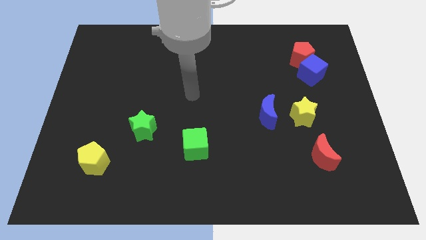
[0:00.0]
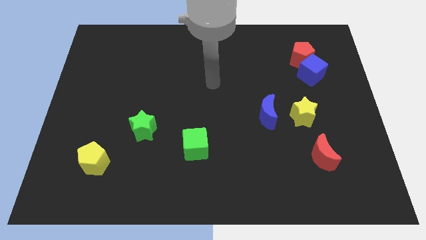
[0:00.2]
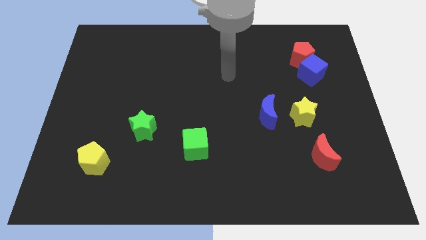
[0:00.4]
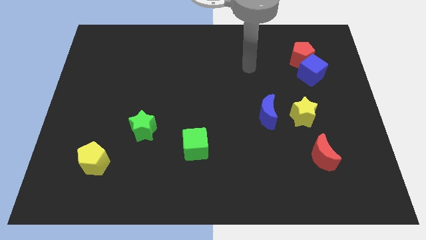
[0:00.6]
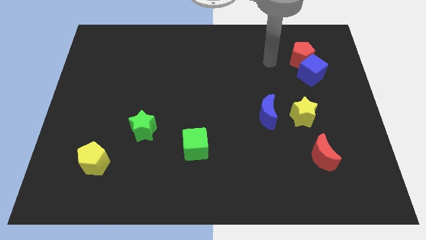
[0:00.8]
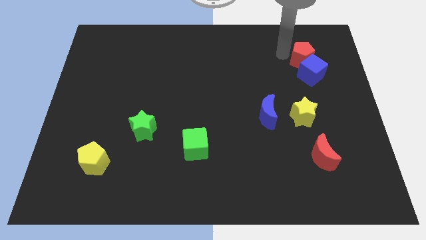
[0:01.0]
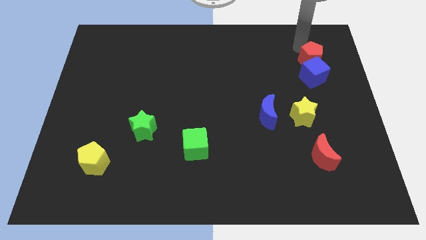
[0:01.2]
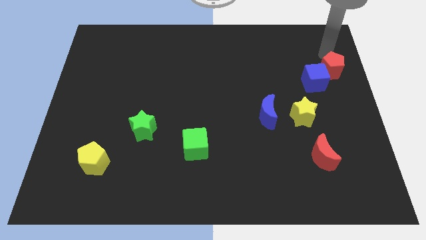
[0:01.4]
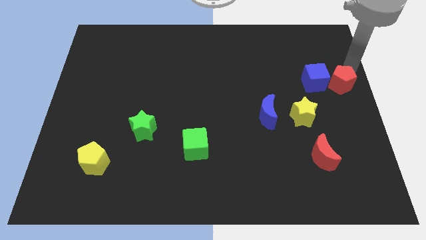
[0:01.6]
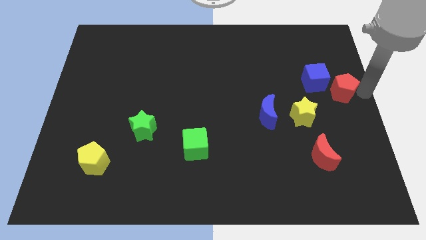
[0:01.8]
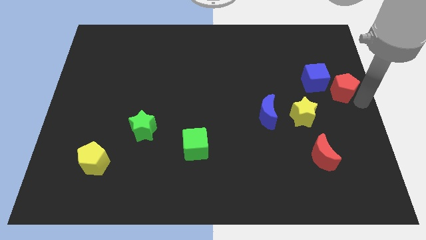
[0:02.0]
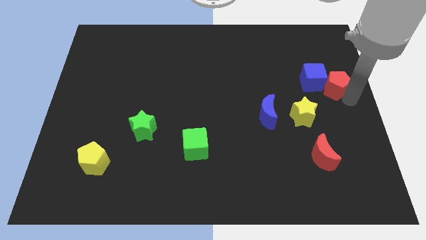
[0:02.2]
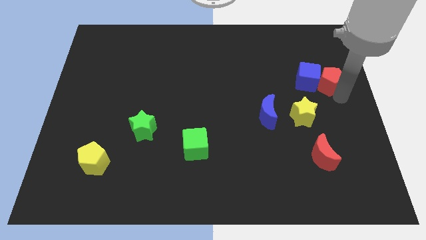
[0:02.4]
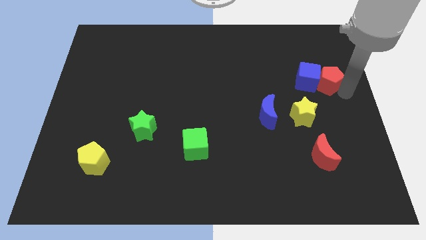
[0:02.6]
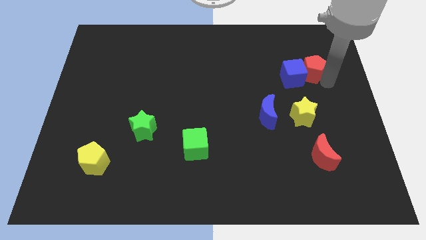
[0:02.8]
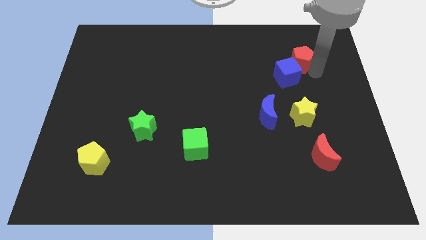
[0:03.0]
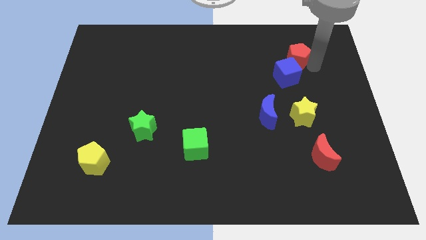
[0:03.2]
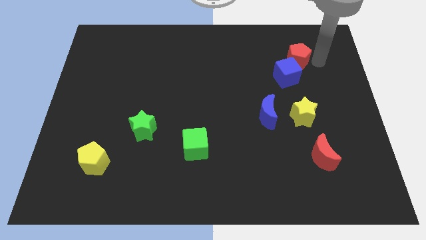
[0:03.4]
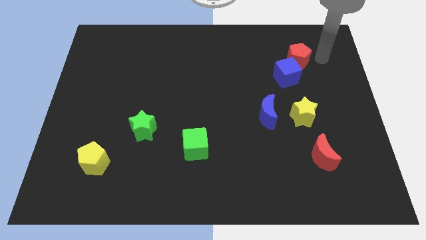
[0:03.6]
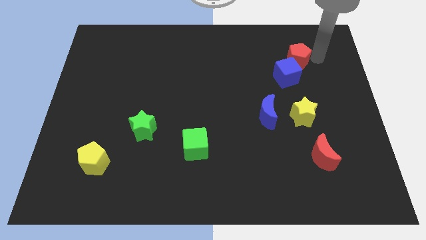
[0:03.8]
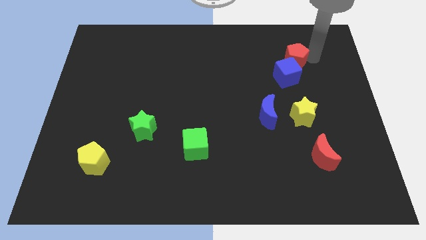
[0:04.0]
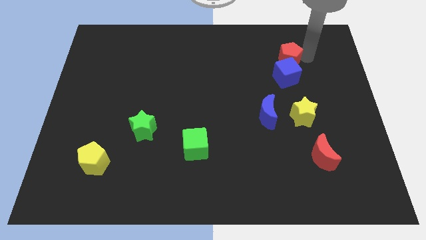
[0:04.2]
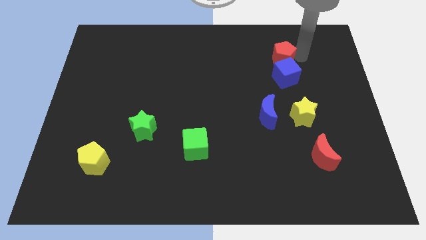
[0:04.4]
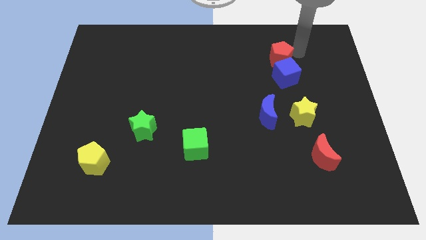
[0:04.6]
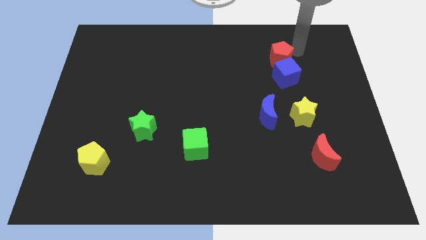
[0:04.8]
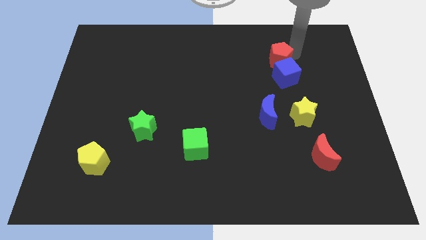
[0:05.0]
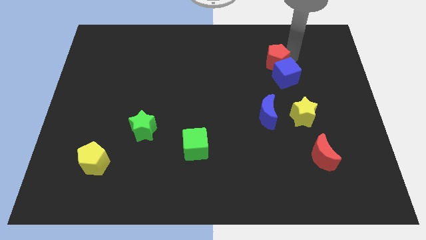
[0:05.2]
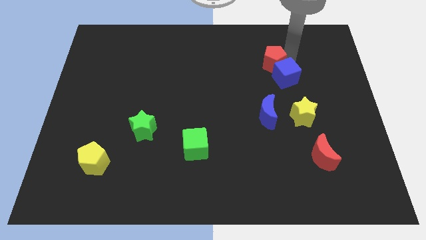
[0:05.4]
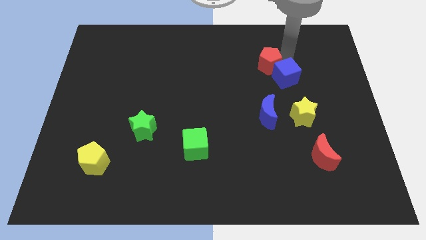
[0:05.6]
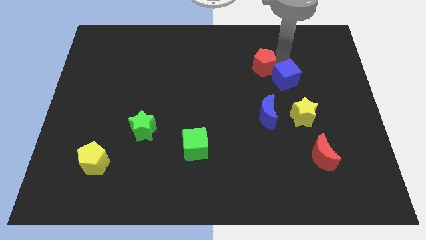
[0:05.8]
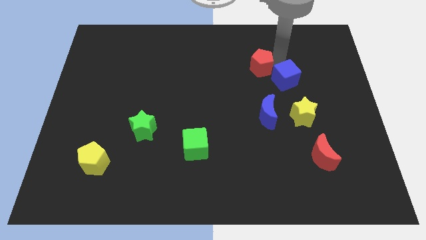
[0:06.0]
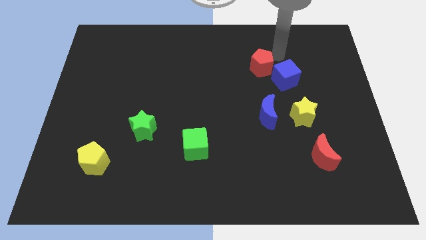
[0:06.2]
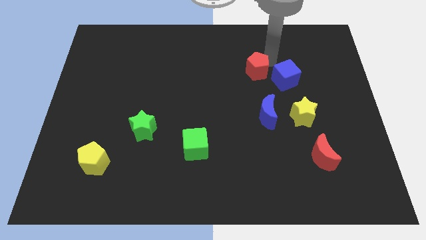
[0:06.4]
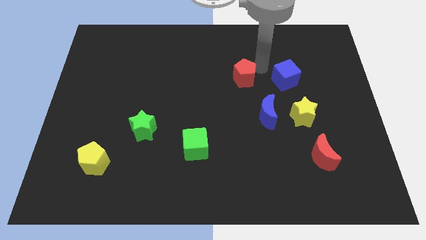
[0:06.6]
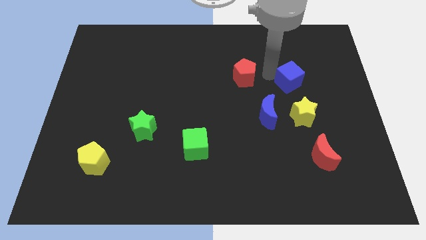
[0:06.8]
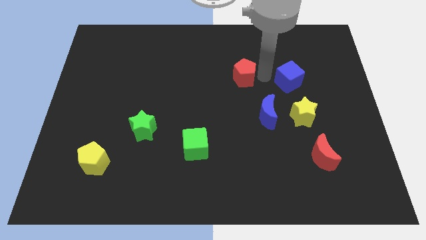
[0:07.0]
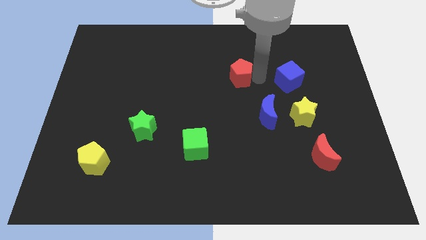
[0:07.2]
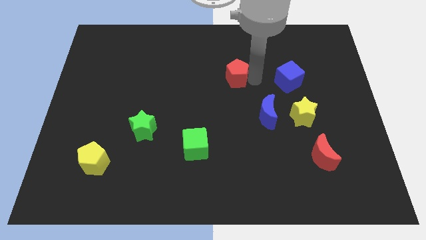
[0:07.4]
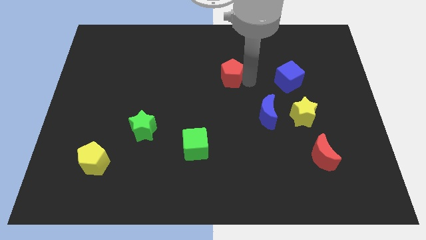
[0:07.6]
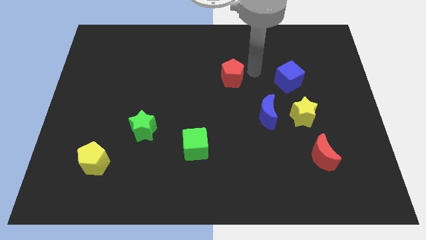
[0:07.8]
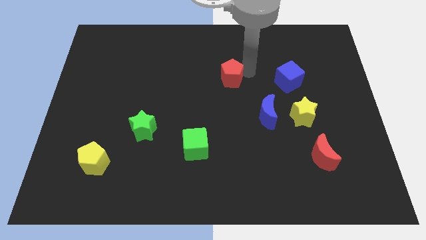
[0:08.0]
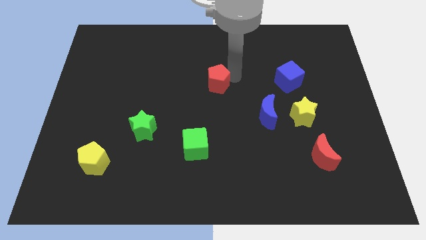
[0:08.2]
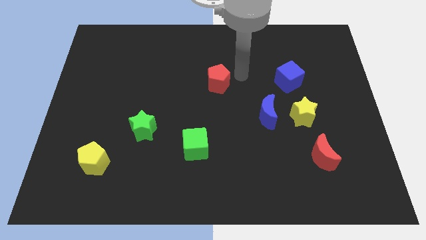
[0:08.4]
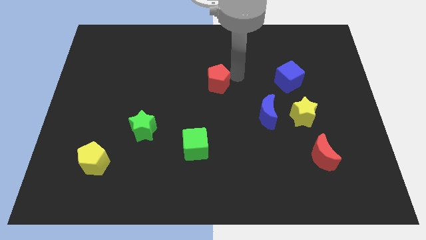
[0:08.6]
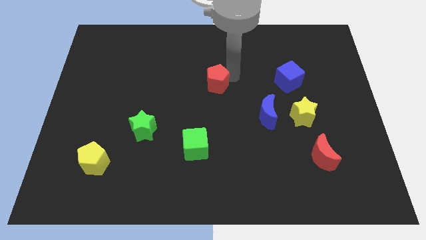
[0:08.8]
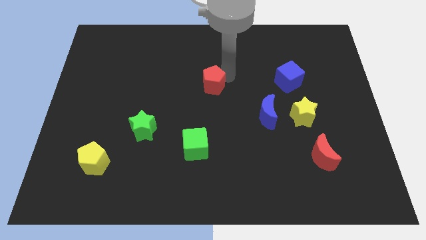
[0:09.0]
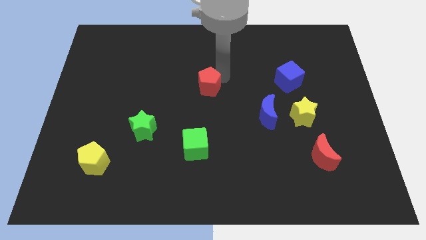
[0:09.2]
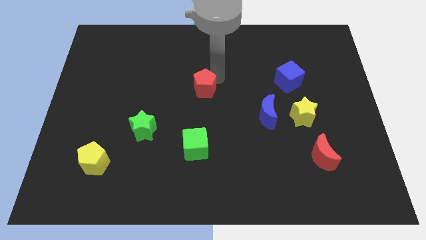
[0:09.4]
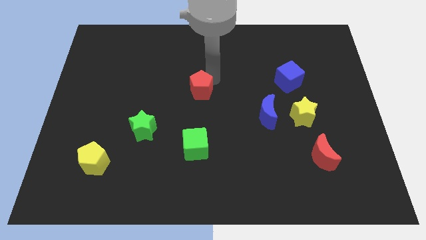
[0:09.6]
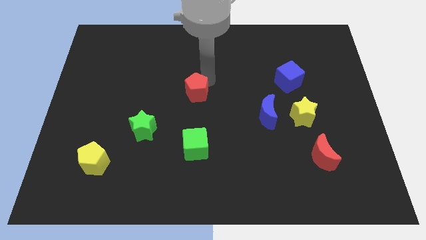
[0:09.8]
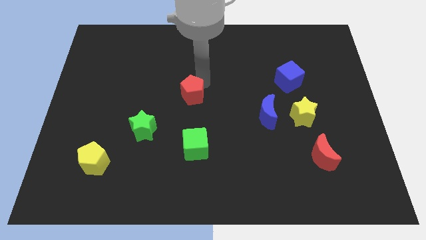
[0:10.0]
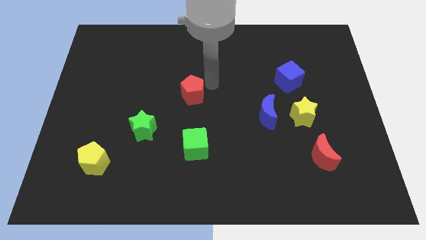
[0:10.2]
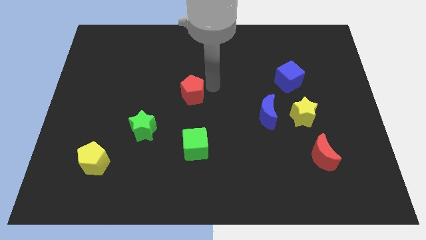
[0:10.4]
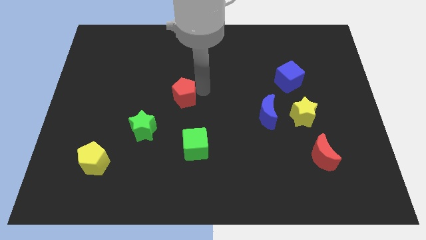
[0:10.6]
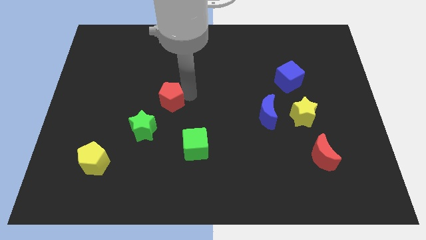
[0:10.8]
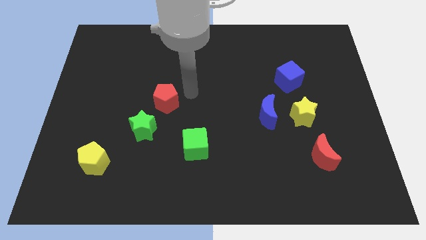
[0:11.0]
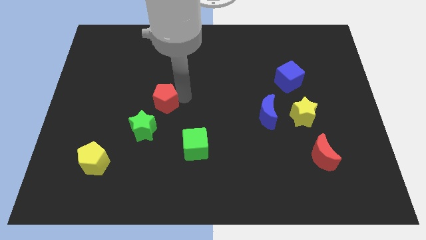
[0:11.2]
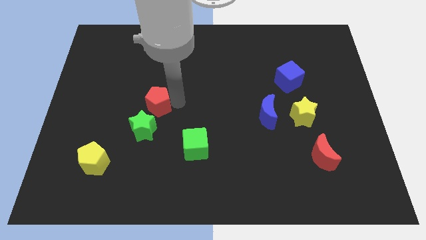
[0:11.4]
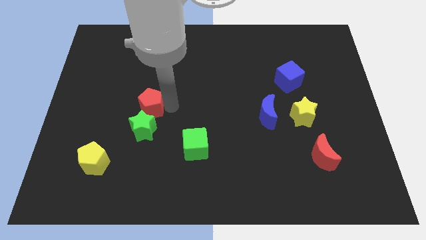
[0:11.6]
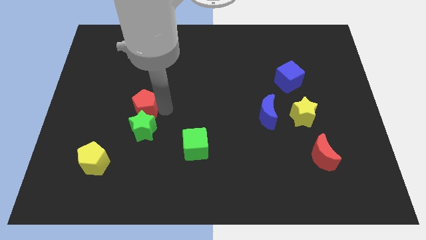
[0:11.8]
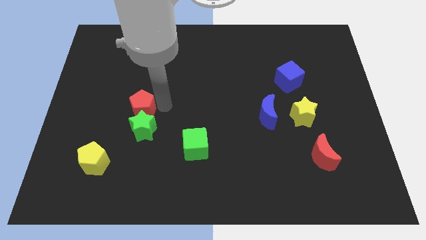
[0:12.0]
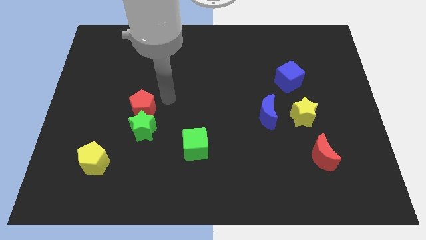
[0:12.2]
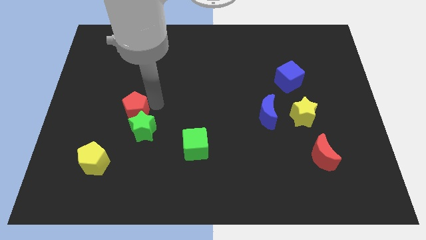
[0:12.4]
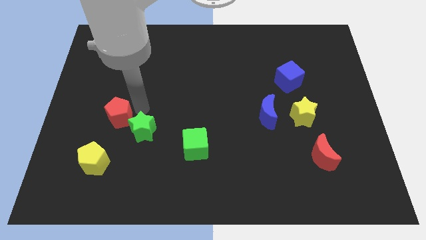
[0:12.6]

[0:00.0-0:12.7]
slide the red pentagon to the left side of the green star

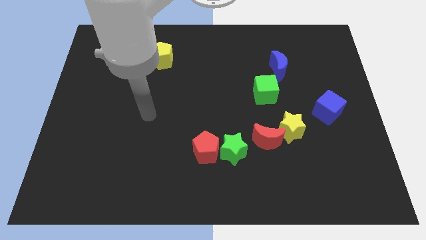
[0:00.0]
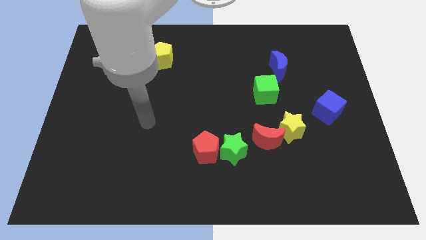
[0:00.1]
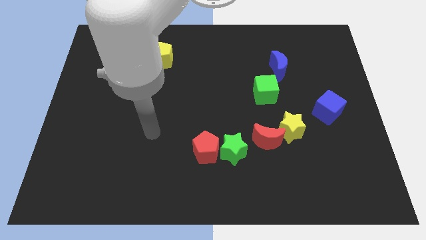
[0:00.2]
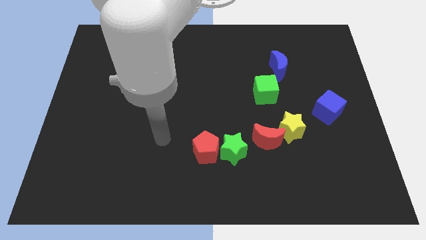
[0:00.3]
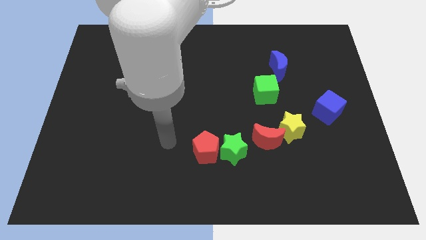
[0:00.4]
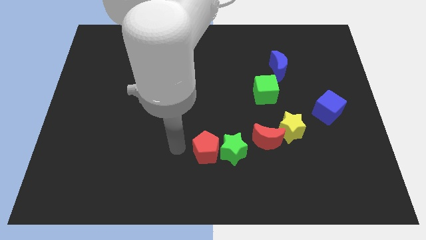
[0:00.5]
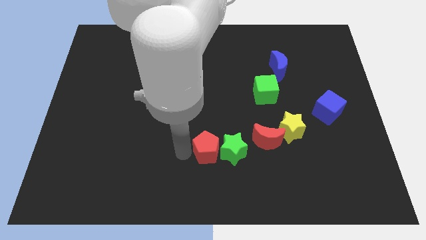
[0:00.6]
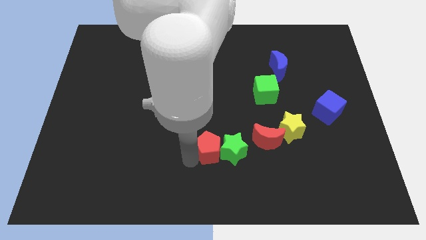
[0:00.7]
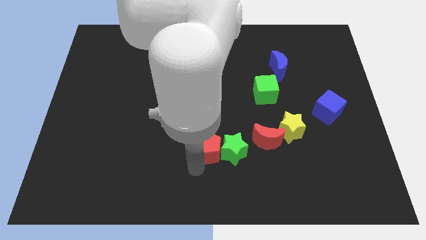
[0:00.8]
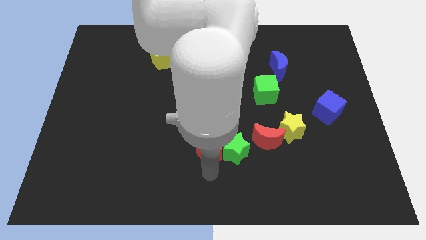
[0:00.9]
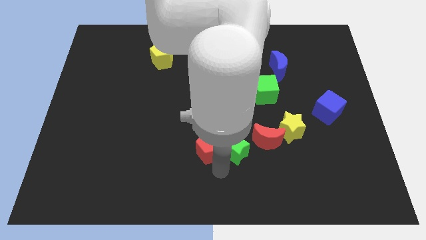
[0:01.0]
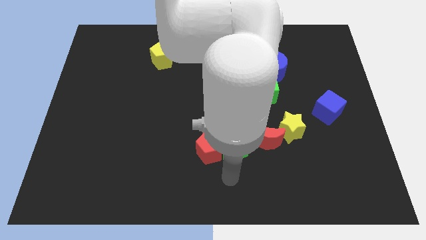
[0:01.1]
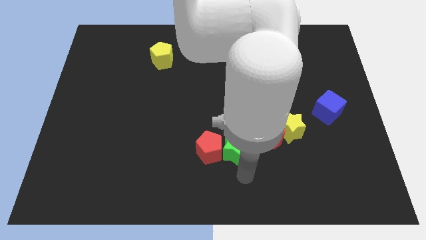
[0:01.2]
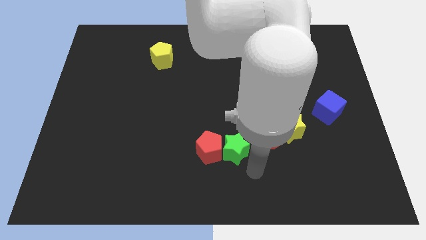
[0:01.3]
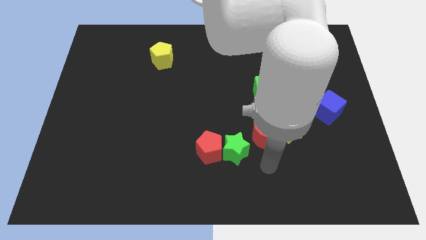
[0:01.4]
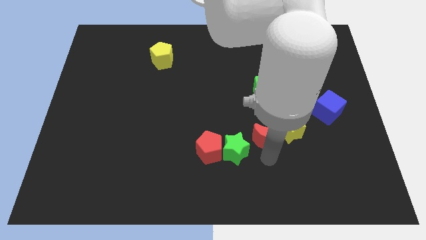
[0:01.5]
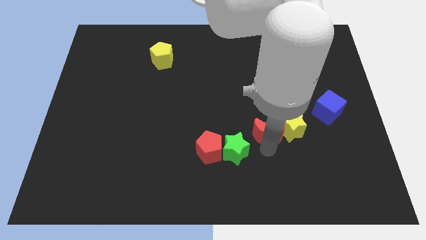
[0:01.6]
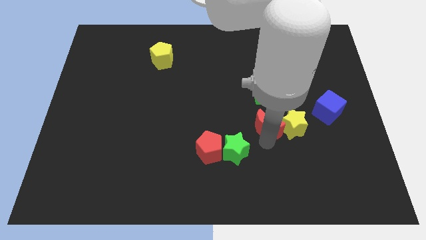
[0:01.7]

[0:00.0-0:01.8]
slide the red moon diagonally up and to the left of the yellow star
